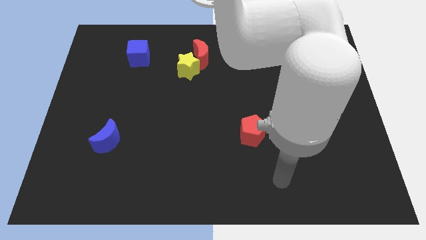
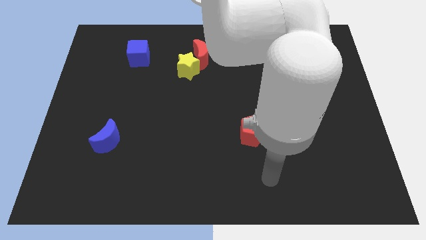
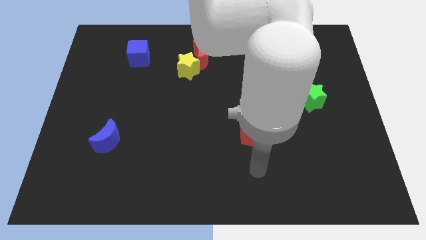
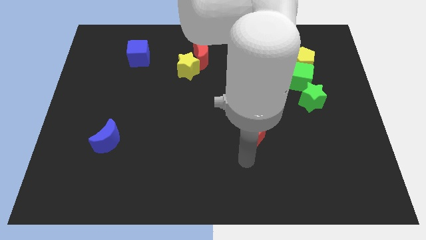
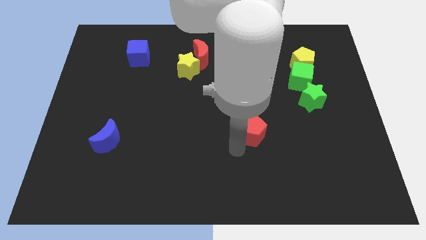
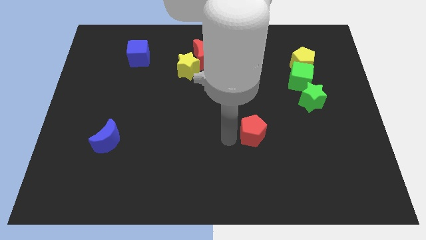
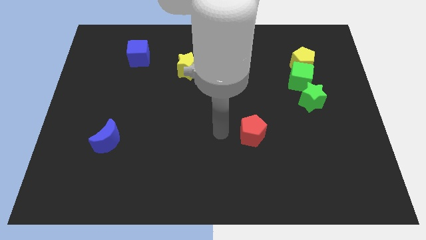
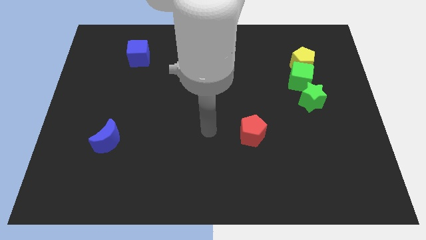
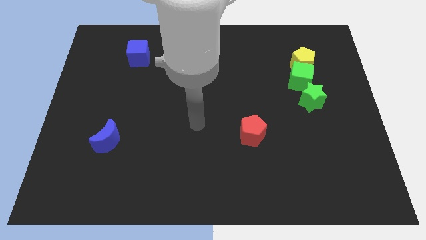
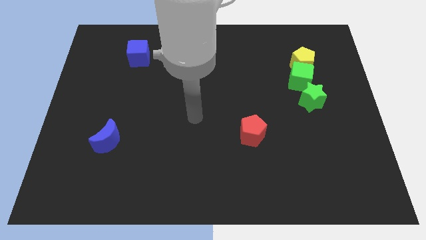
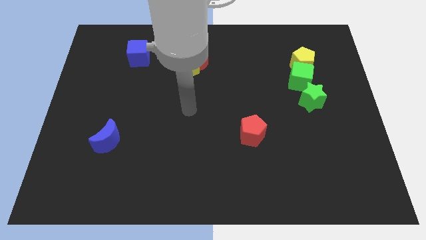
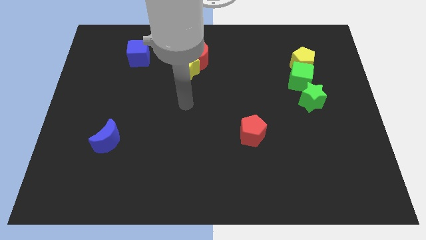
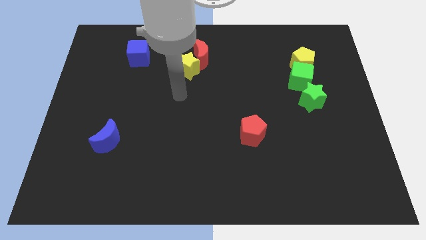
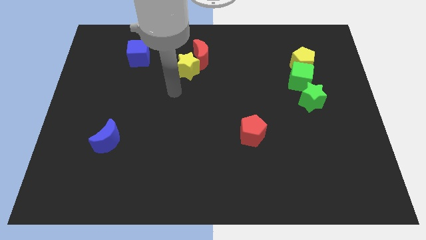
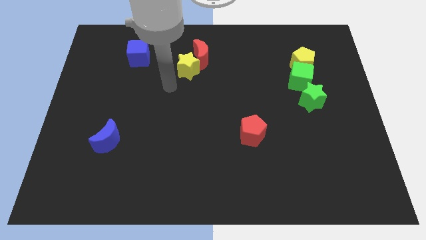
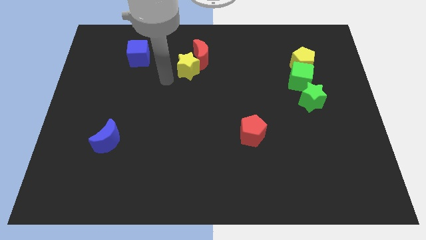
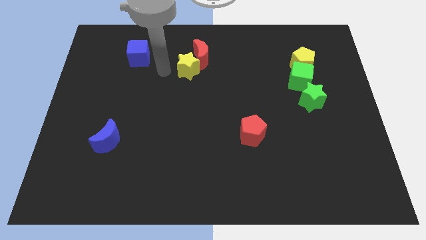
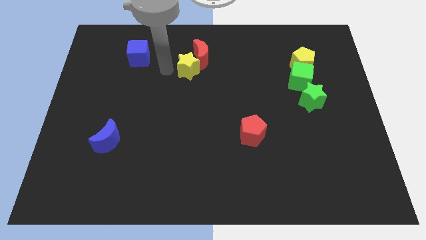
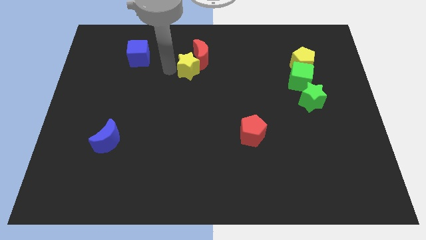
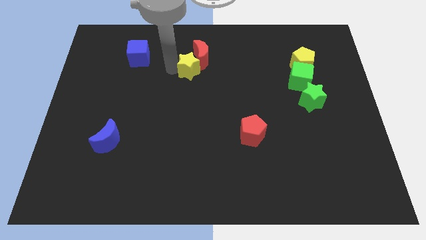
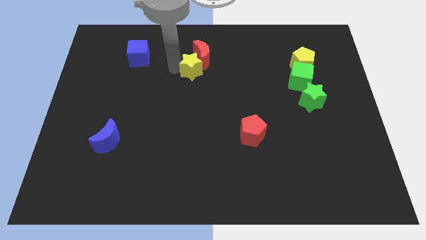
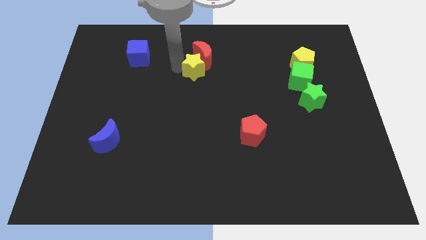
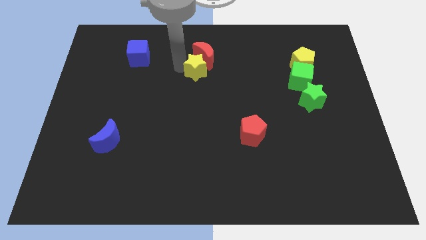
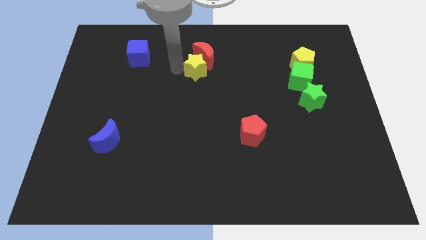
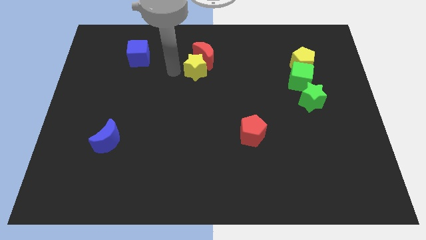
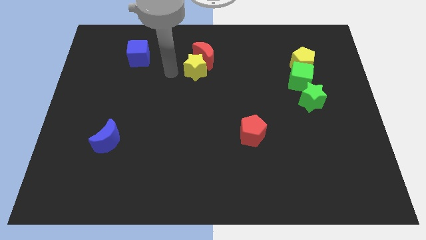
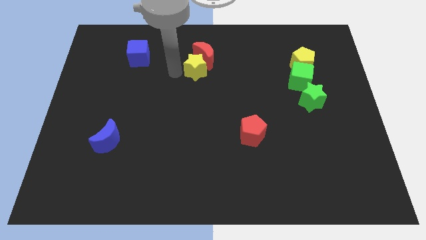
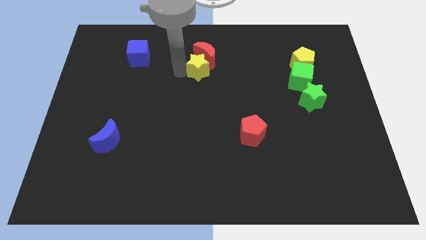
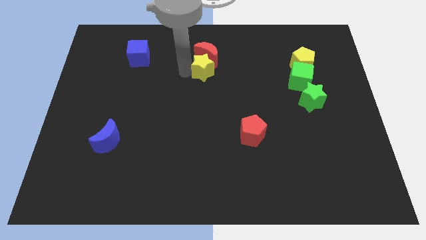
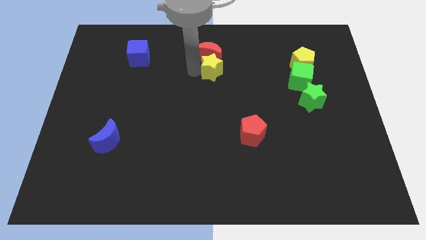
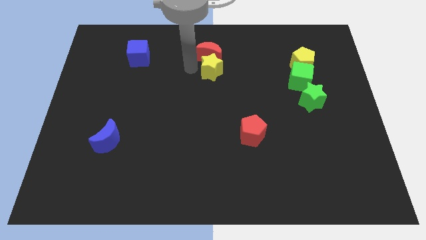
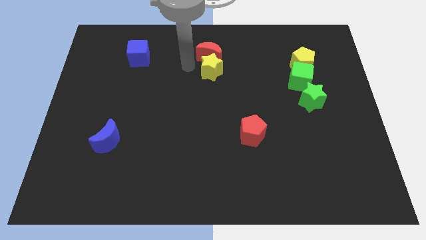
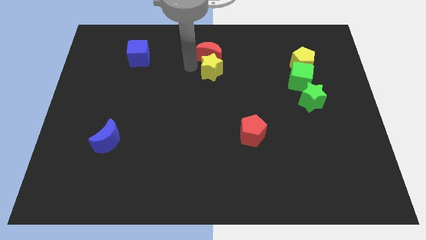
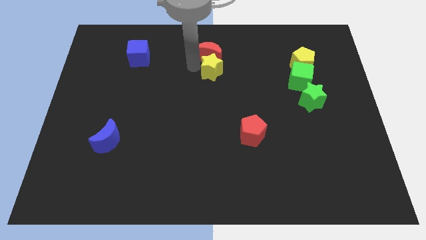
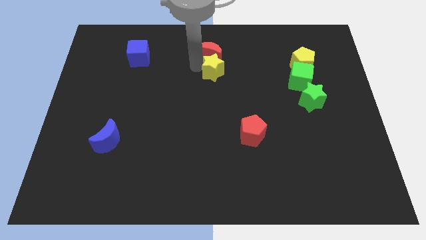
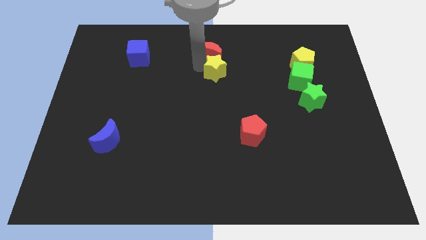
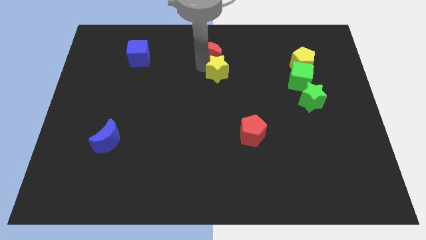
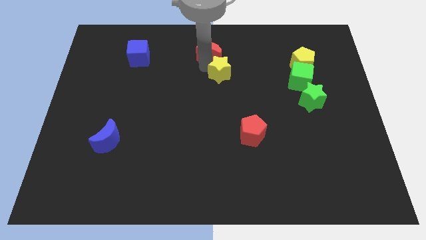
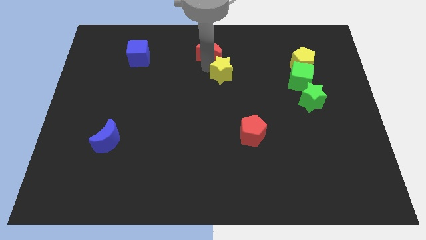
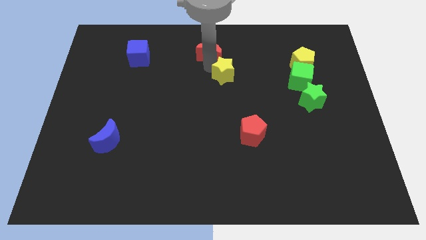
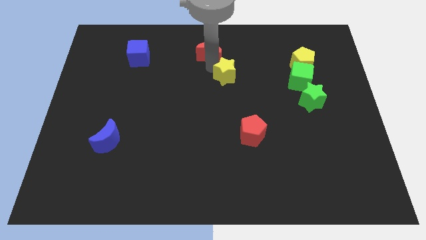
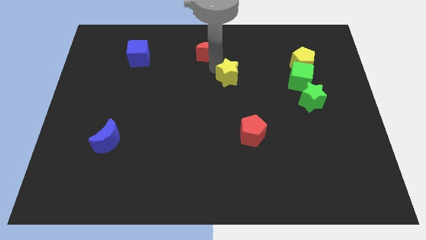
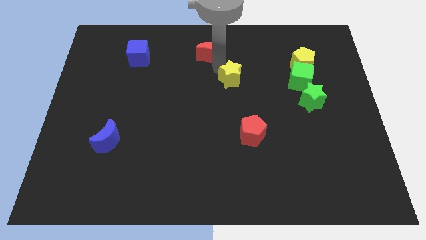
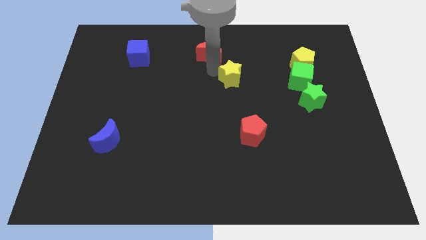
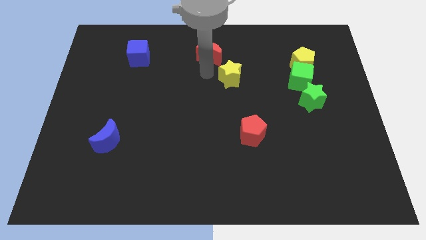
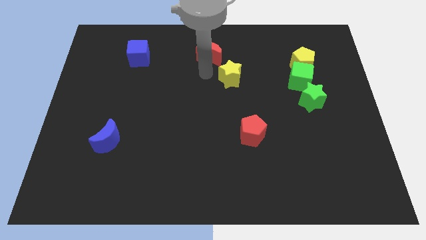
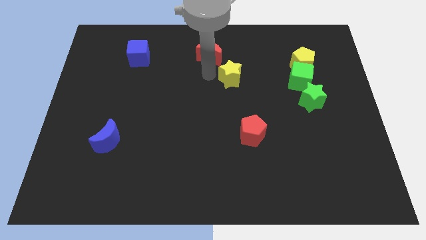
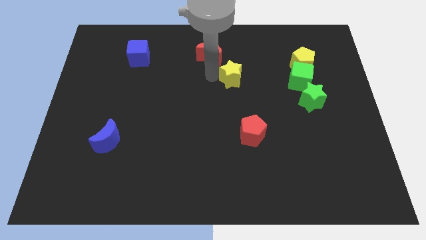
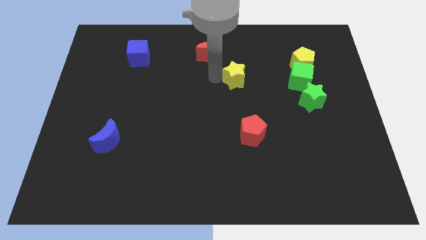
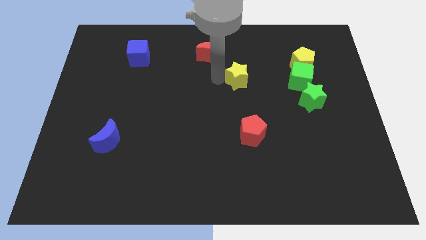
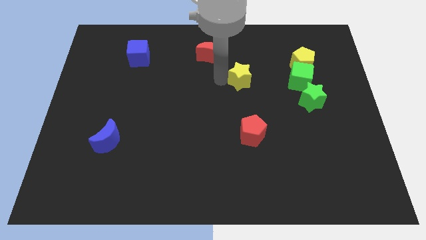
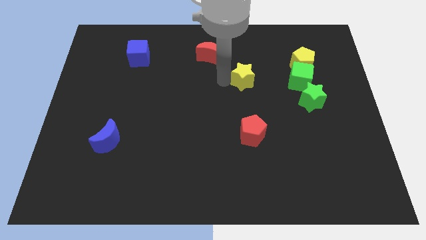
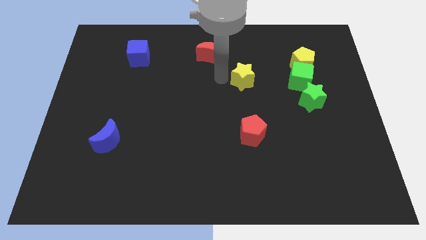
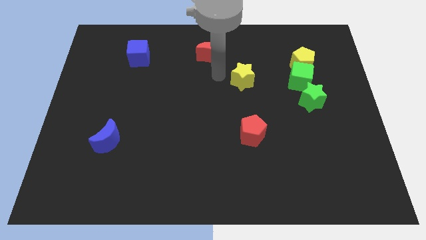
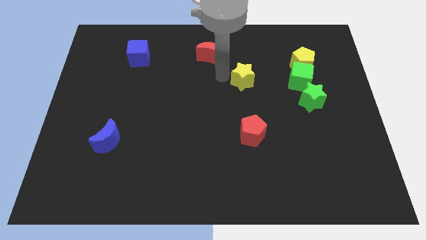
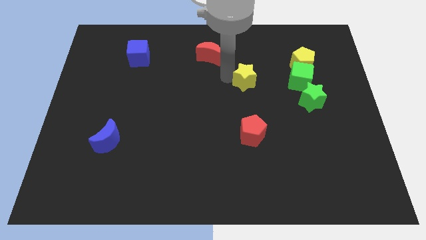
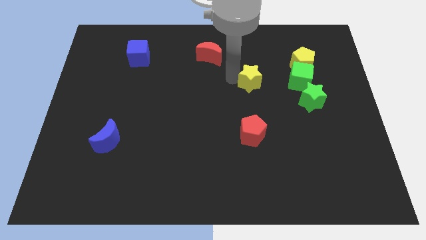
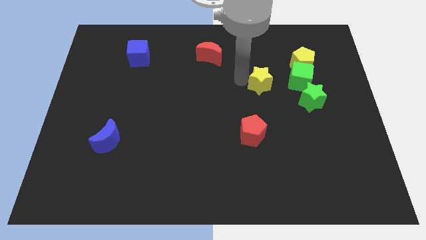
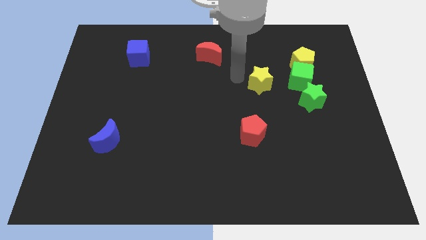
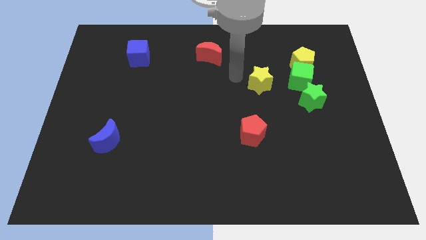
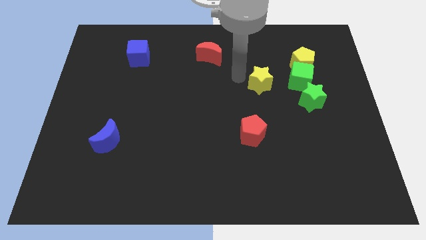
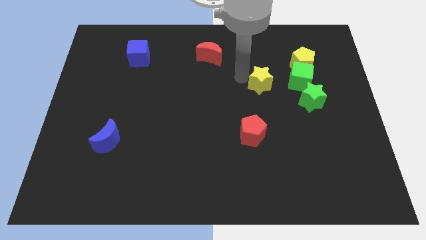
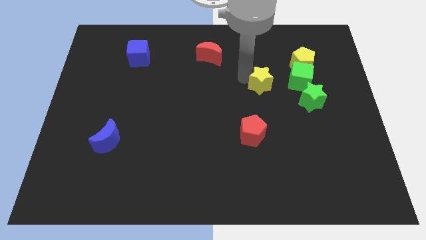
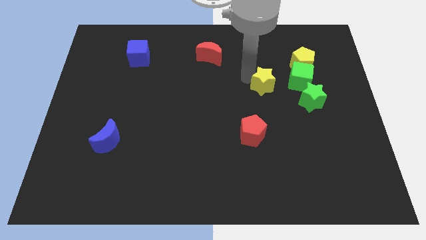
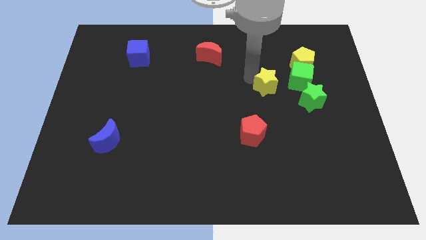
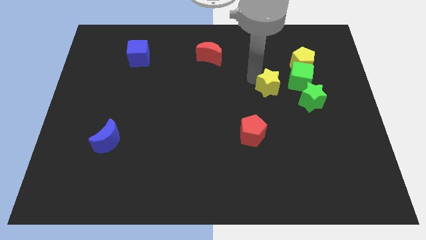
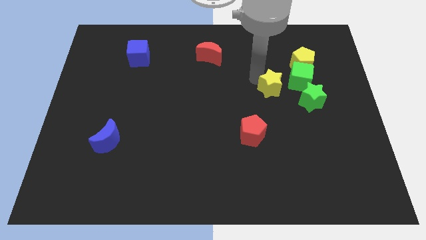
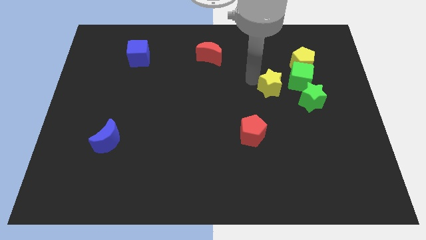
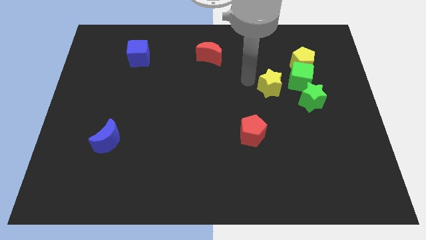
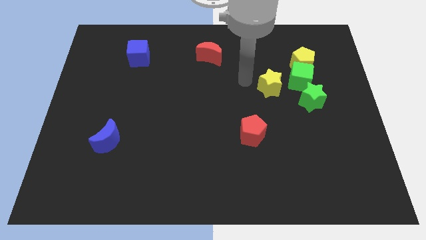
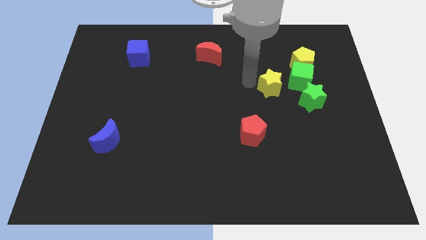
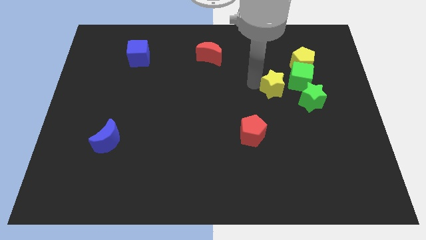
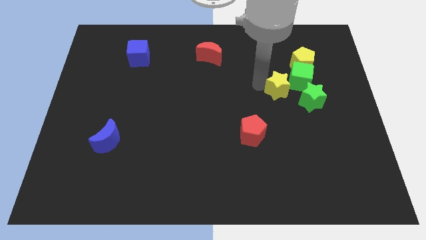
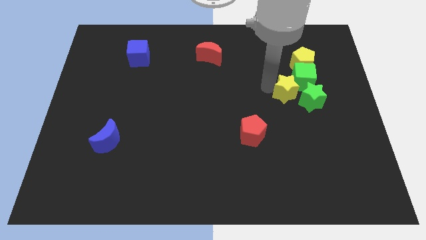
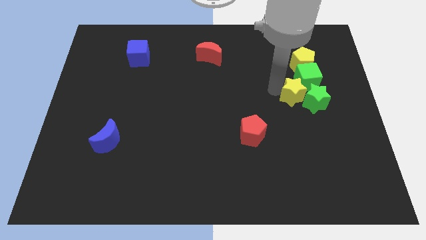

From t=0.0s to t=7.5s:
put the yellow star to the green star
